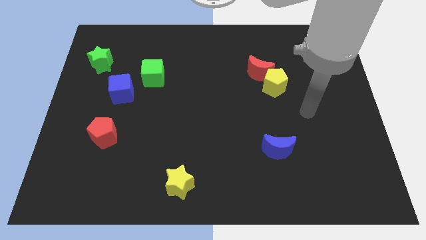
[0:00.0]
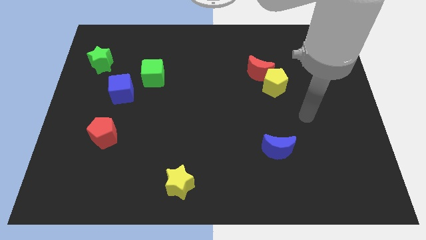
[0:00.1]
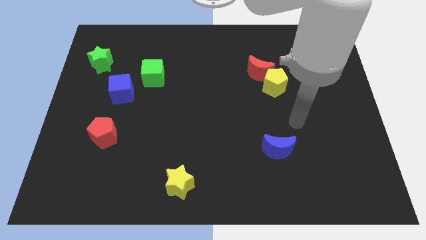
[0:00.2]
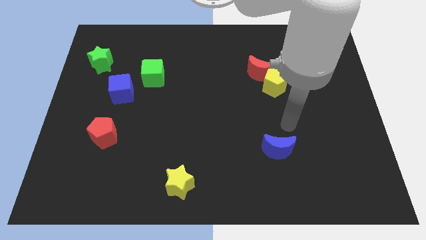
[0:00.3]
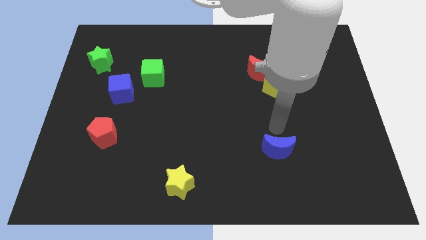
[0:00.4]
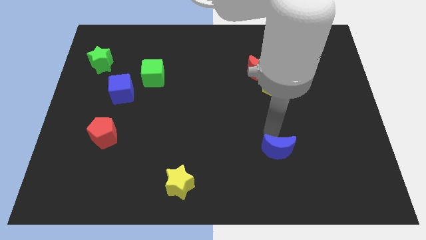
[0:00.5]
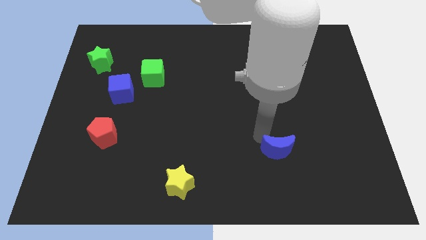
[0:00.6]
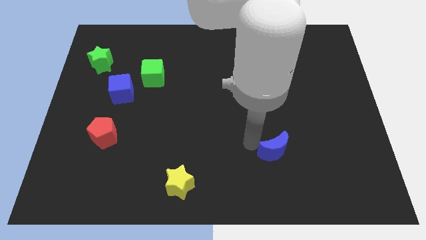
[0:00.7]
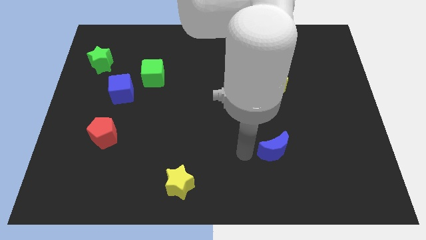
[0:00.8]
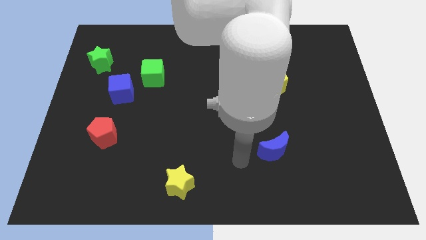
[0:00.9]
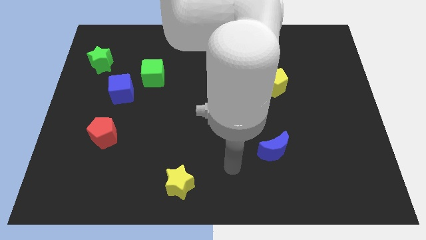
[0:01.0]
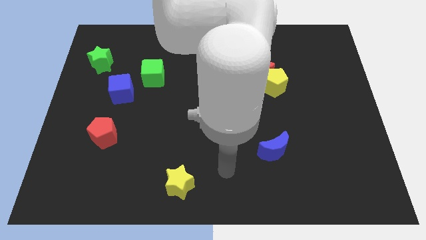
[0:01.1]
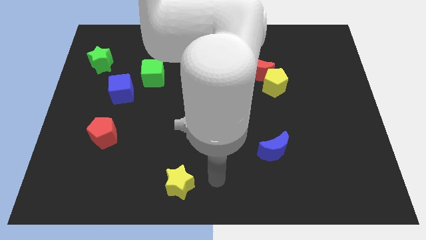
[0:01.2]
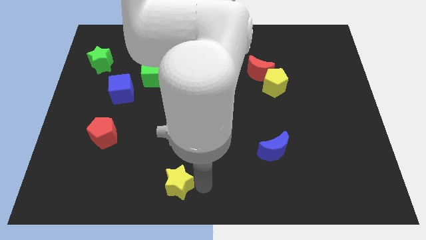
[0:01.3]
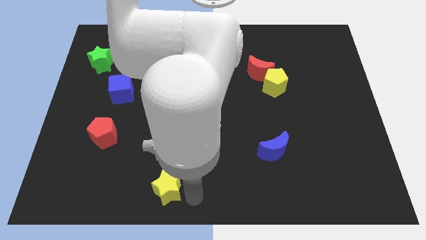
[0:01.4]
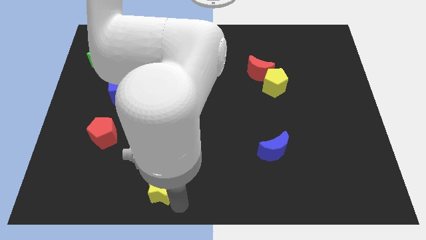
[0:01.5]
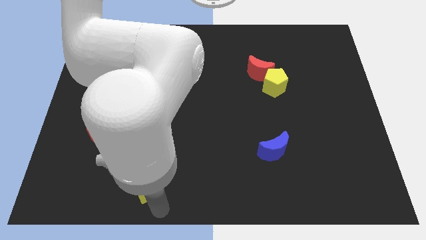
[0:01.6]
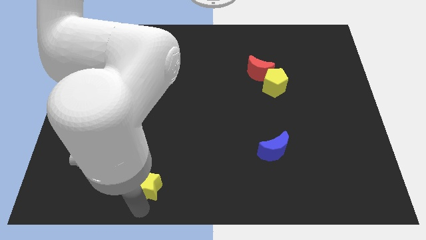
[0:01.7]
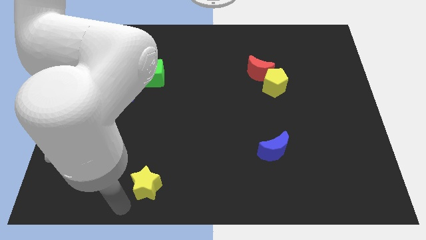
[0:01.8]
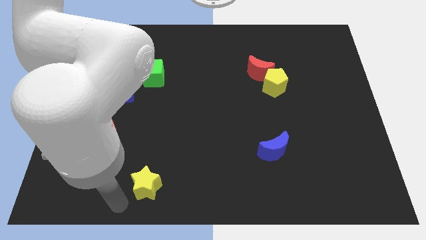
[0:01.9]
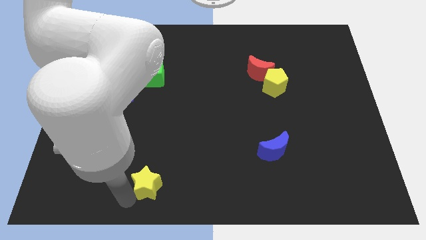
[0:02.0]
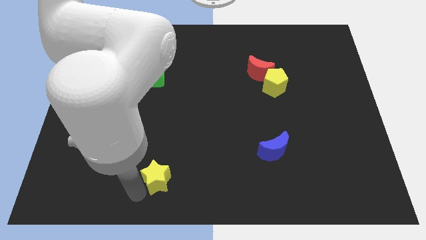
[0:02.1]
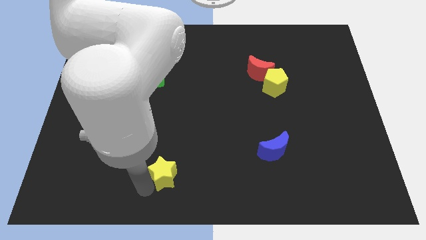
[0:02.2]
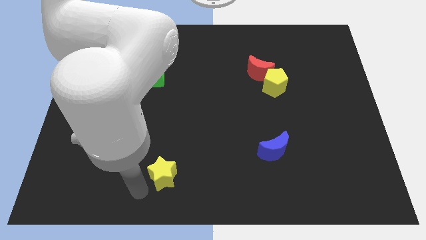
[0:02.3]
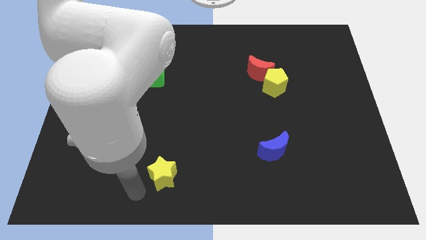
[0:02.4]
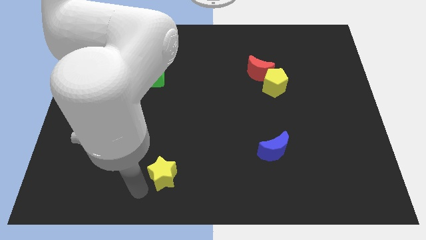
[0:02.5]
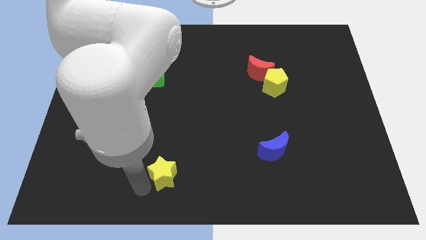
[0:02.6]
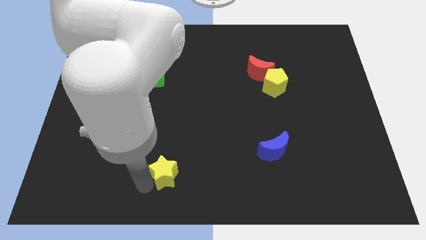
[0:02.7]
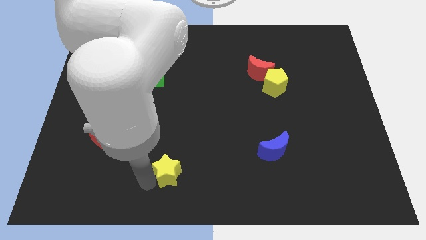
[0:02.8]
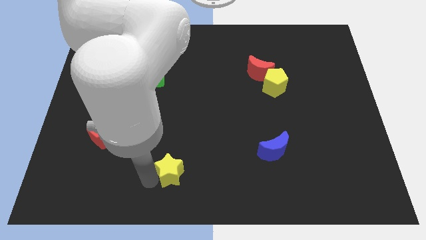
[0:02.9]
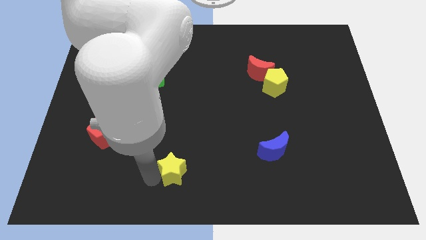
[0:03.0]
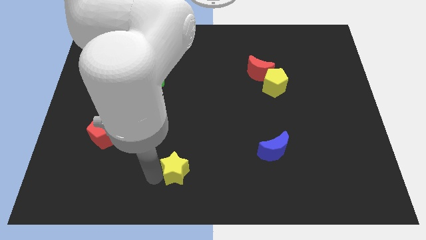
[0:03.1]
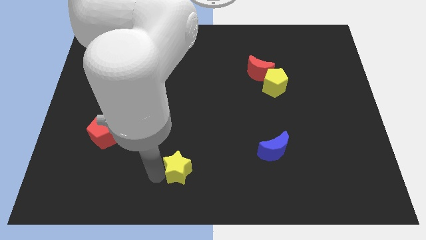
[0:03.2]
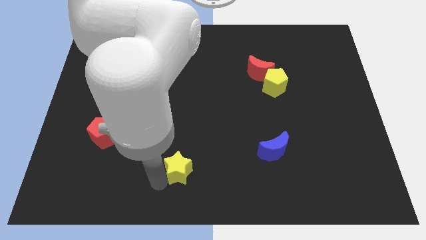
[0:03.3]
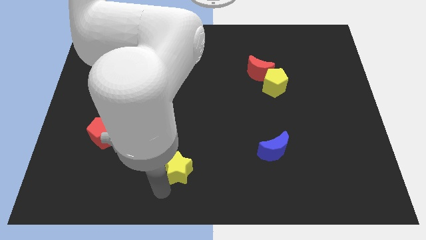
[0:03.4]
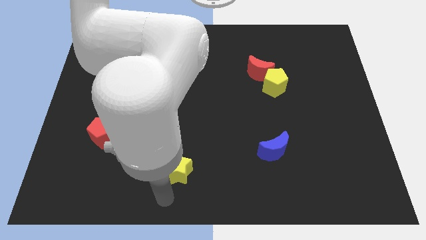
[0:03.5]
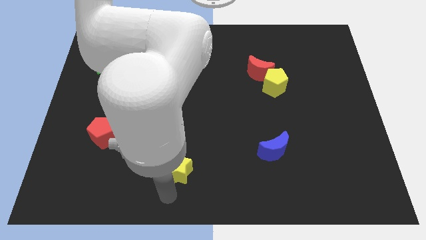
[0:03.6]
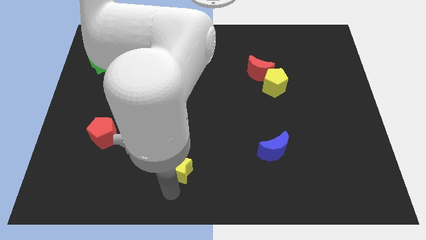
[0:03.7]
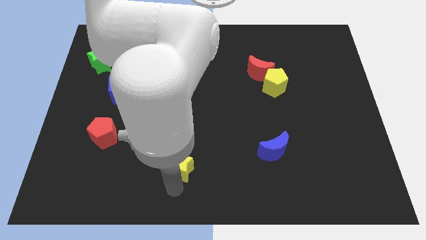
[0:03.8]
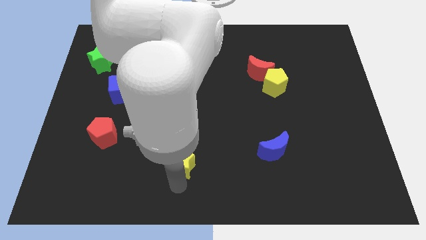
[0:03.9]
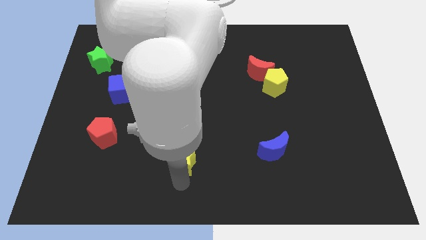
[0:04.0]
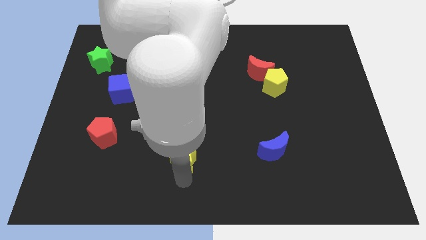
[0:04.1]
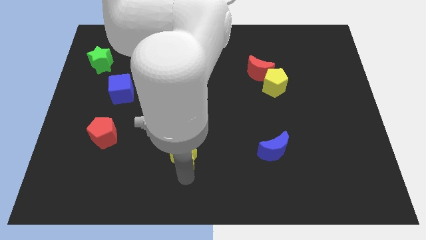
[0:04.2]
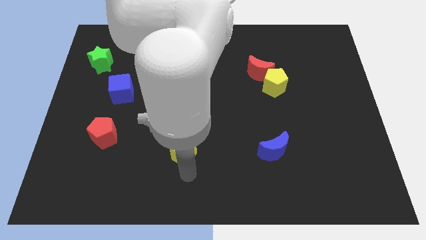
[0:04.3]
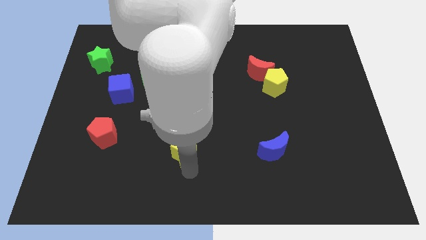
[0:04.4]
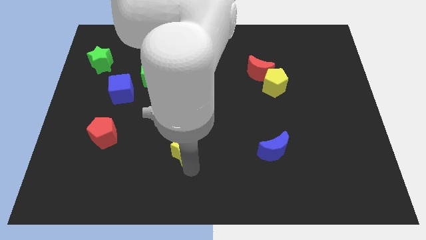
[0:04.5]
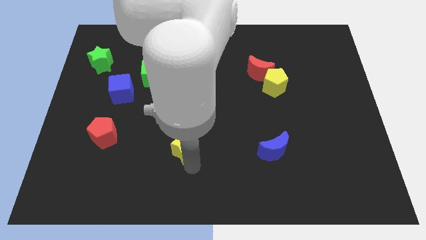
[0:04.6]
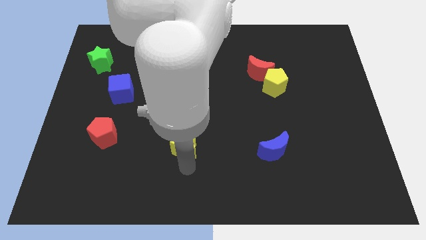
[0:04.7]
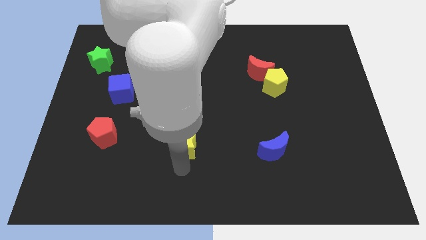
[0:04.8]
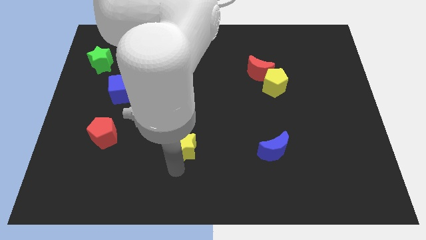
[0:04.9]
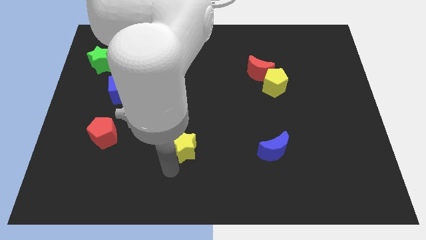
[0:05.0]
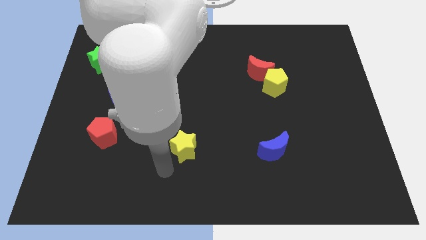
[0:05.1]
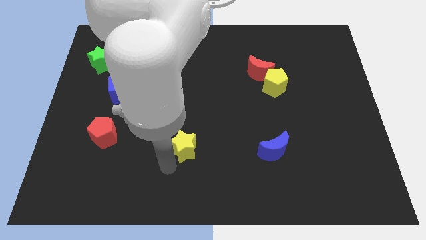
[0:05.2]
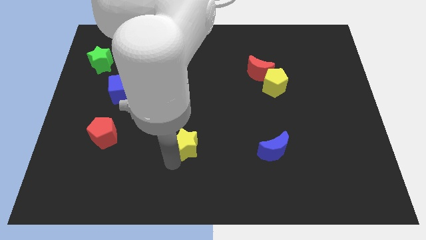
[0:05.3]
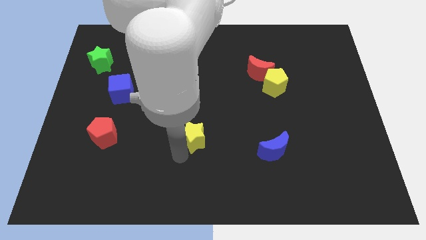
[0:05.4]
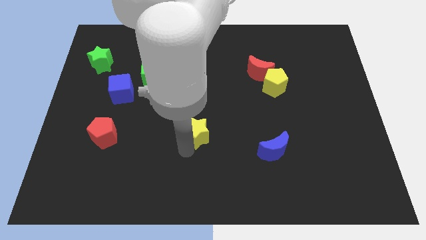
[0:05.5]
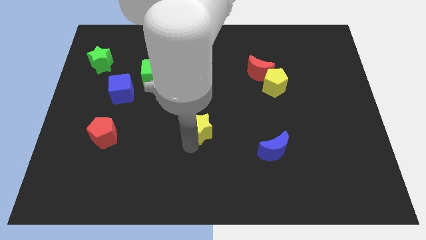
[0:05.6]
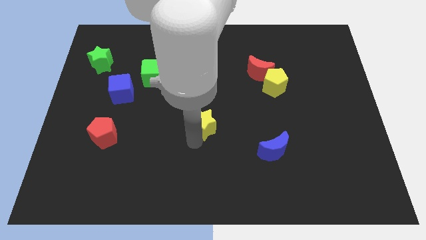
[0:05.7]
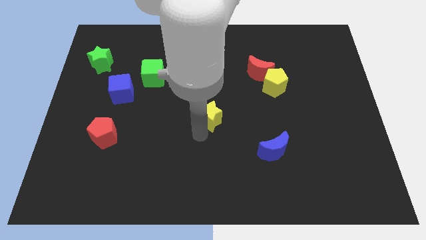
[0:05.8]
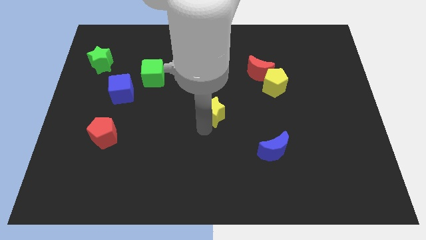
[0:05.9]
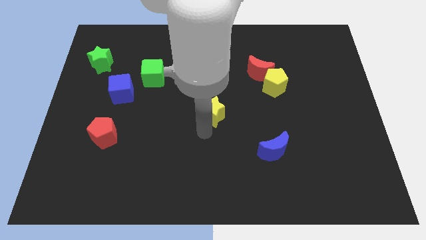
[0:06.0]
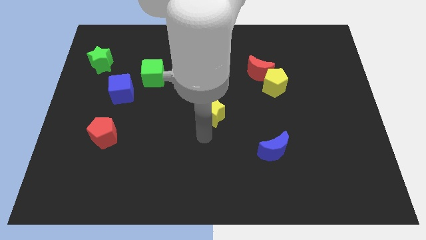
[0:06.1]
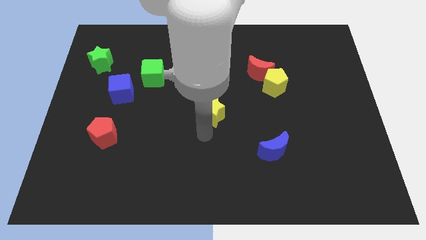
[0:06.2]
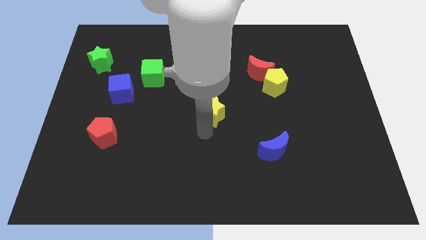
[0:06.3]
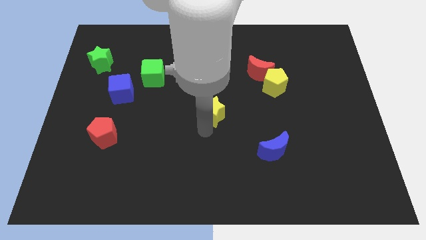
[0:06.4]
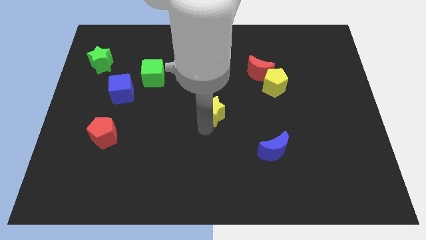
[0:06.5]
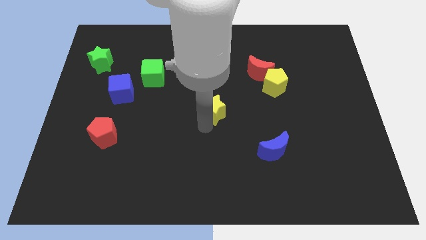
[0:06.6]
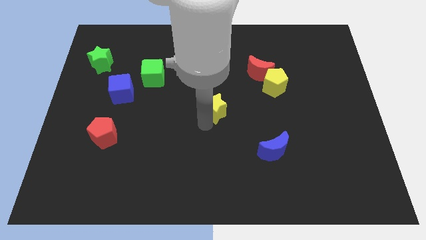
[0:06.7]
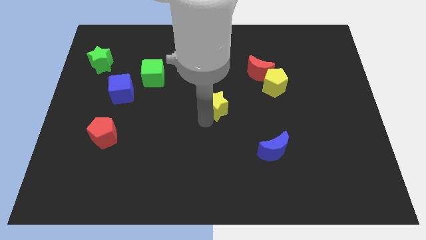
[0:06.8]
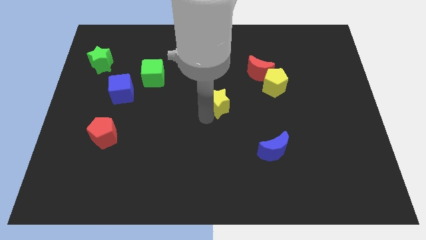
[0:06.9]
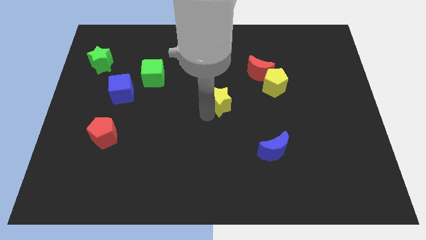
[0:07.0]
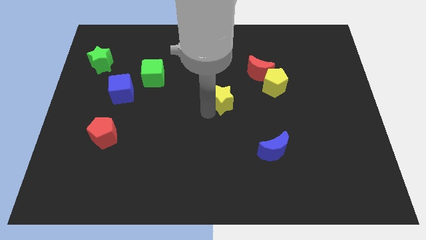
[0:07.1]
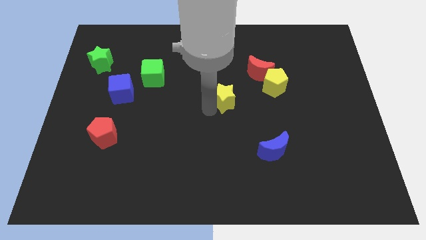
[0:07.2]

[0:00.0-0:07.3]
put the yellow star just left of the yellow pentagon
